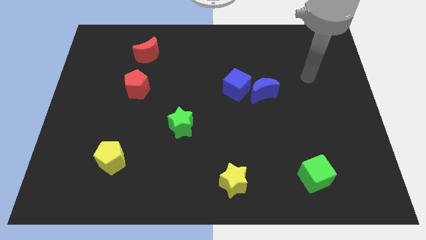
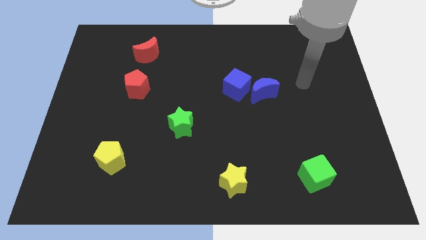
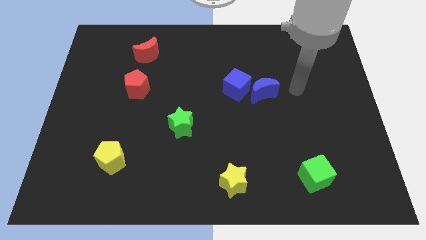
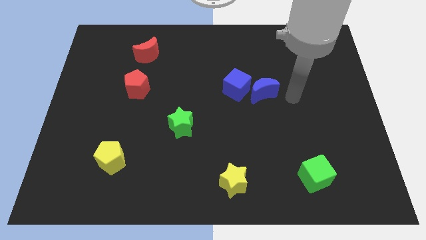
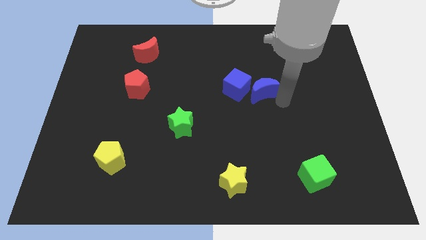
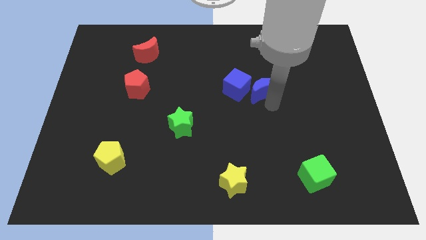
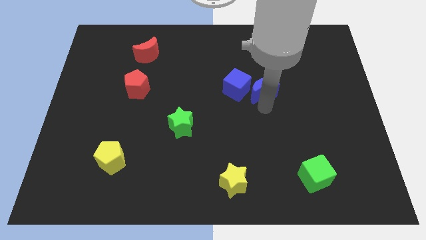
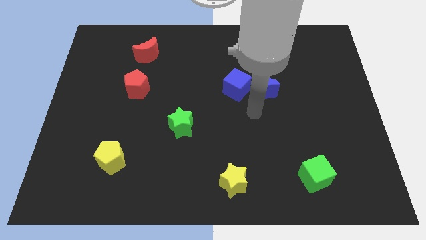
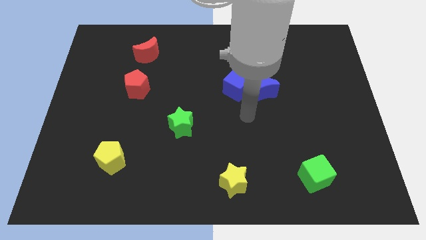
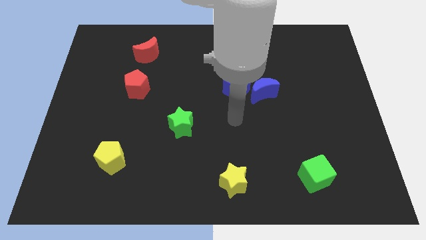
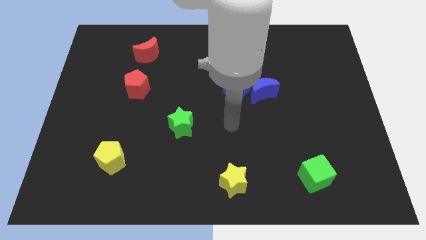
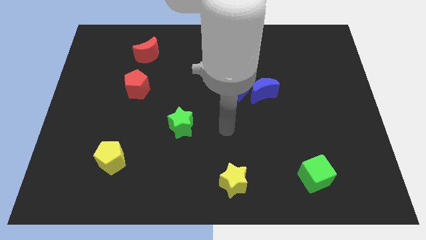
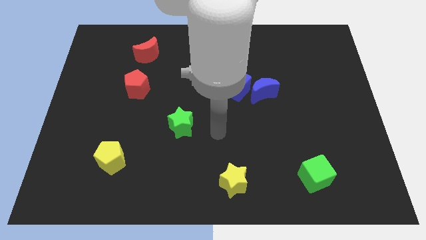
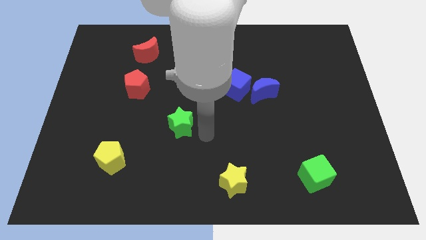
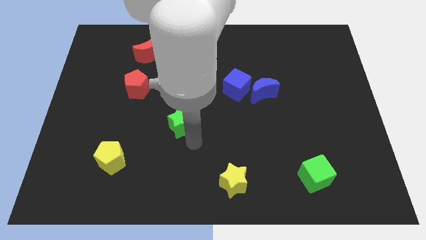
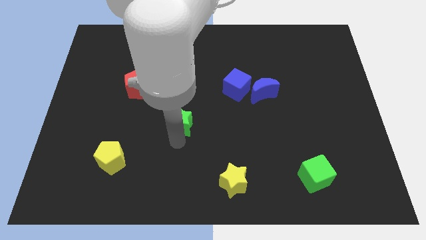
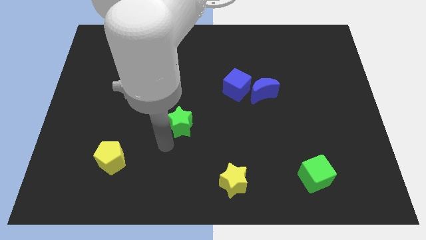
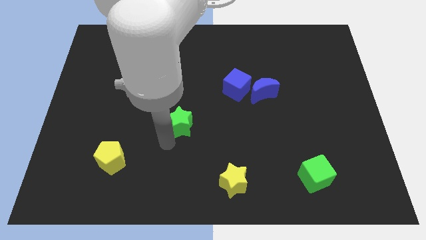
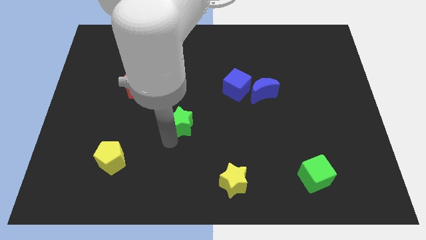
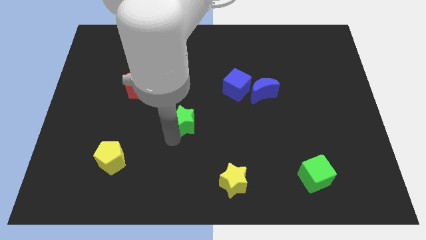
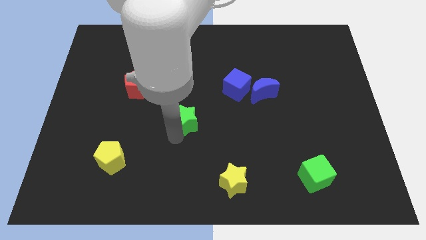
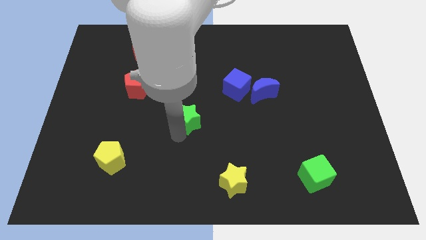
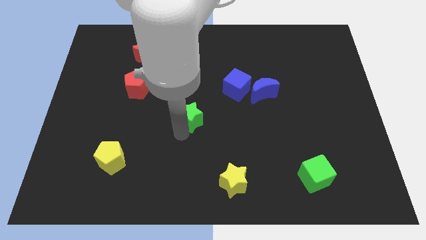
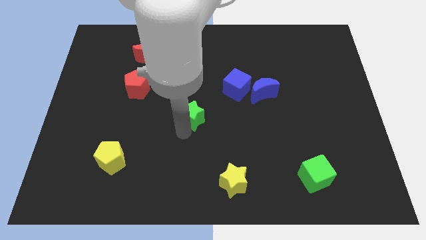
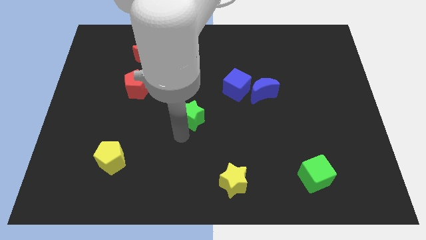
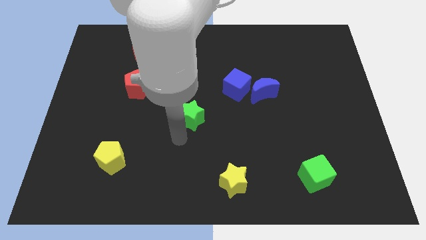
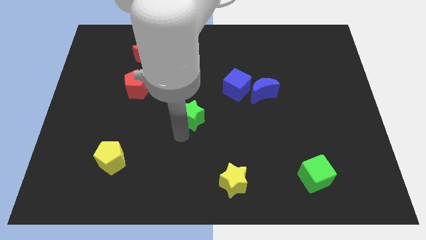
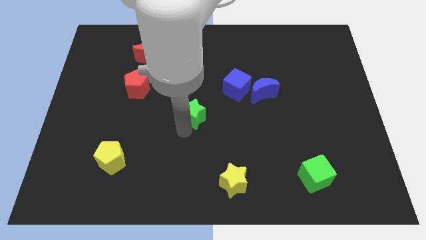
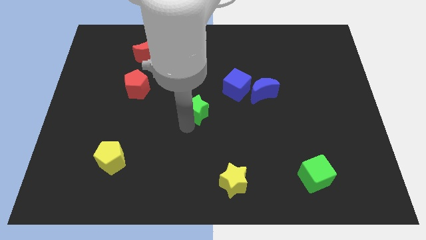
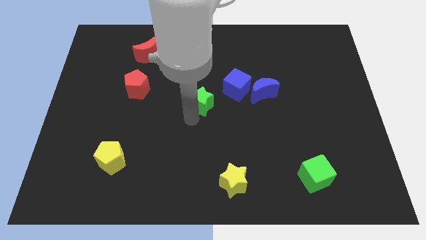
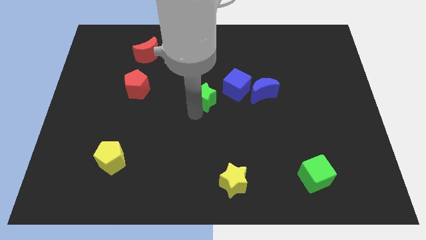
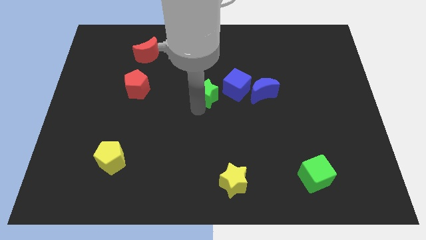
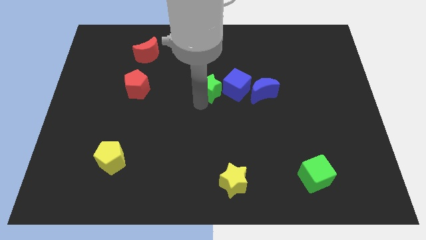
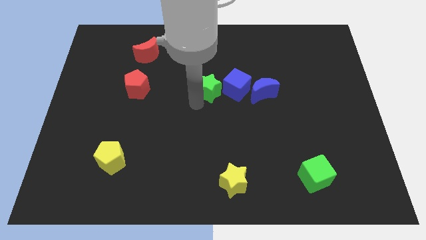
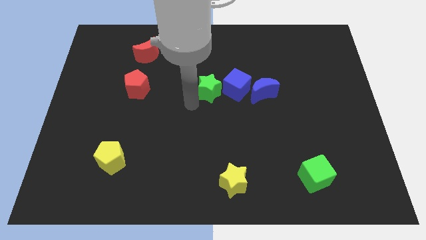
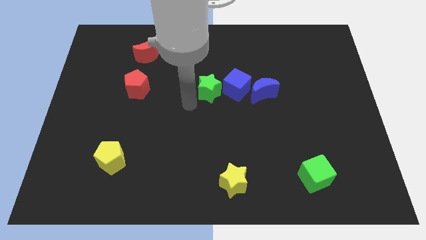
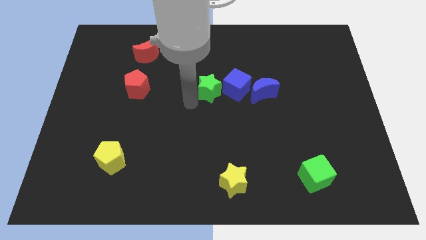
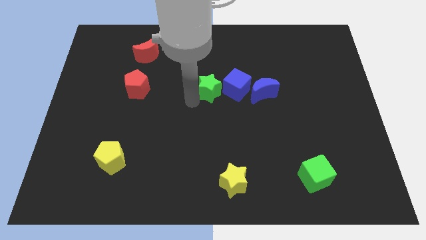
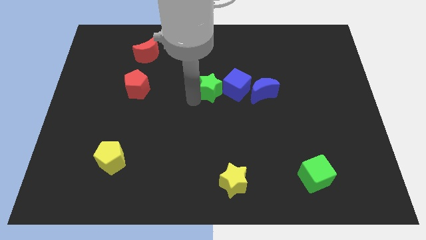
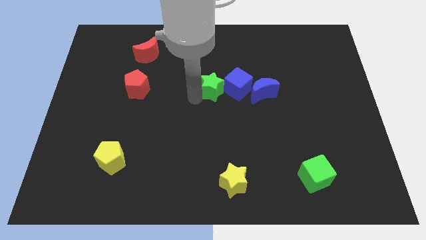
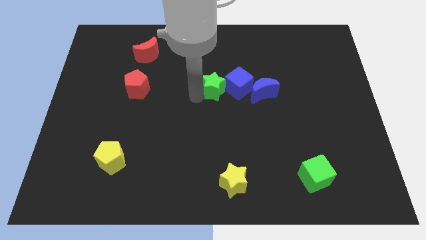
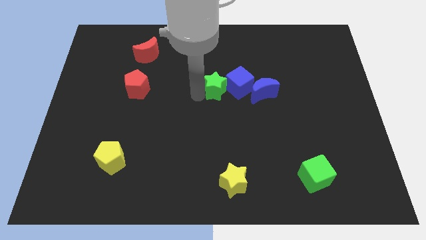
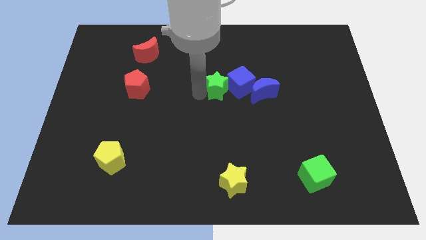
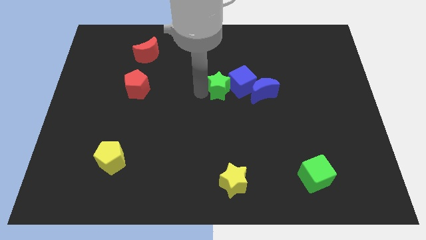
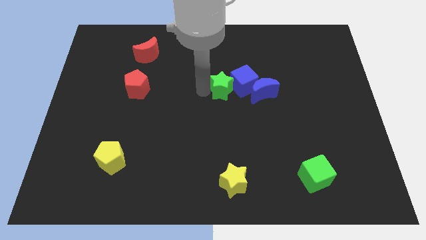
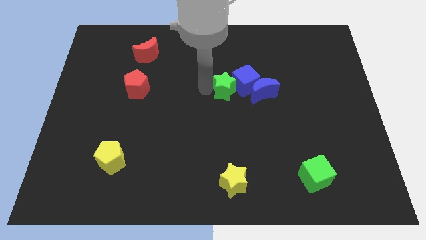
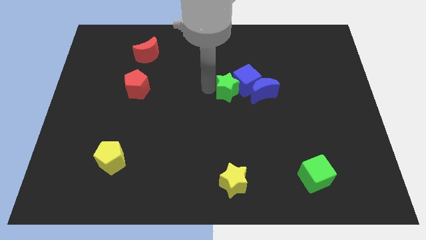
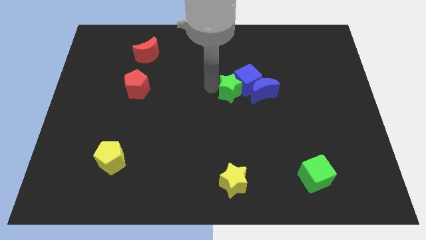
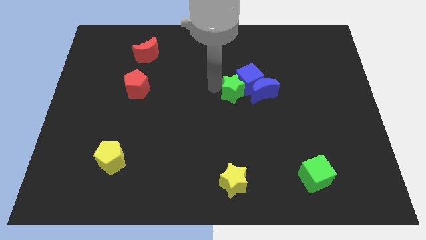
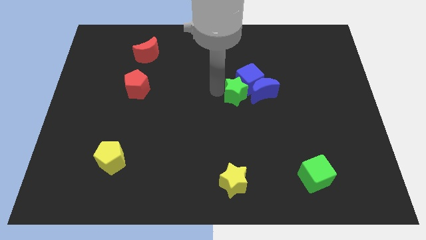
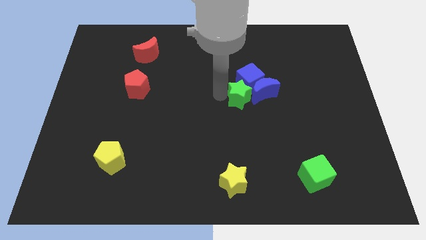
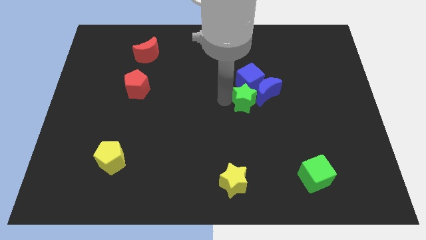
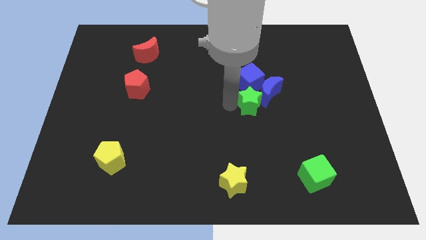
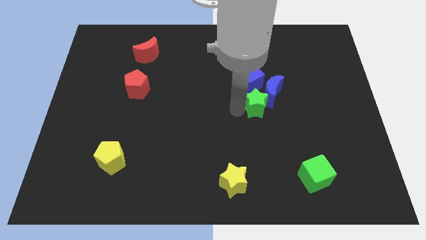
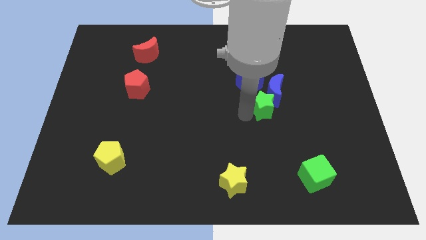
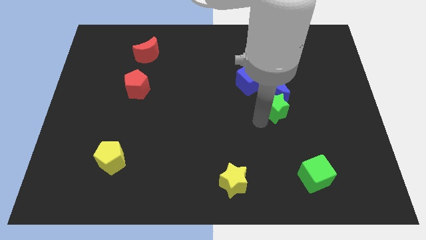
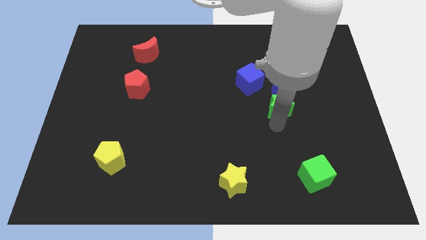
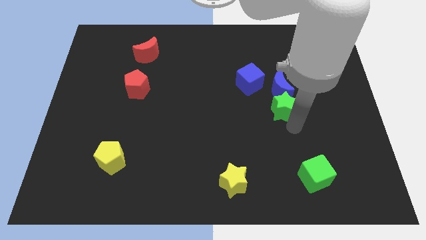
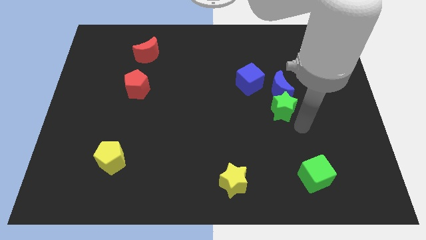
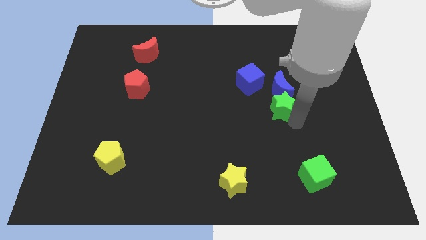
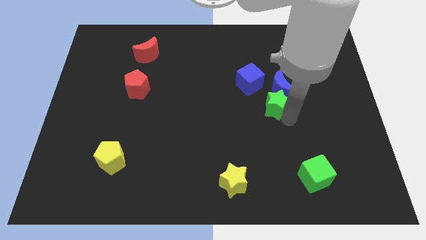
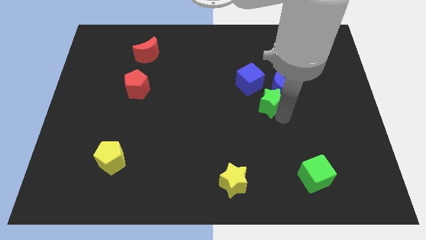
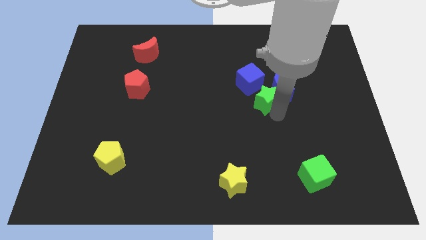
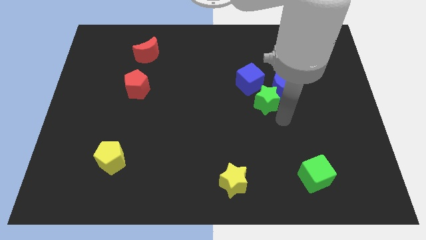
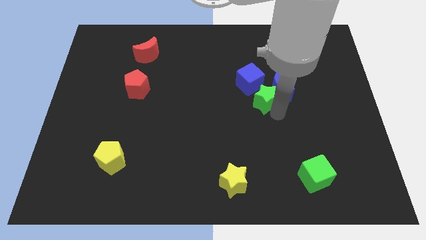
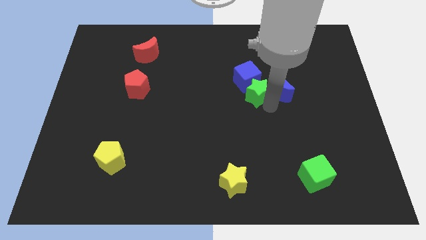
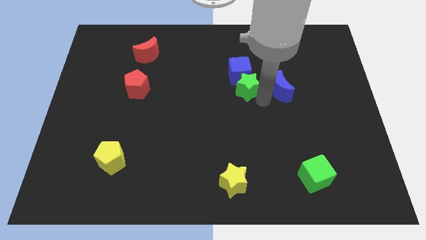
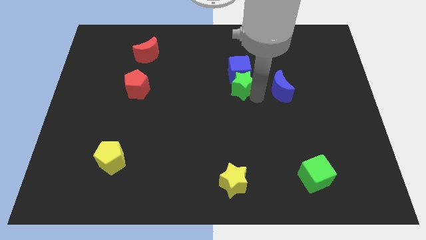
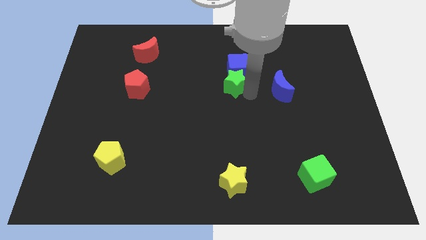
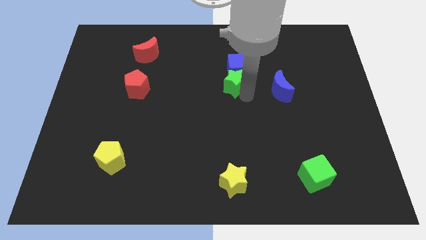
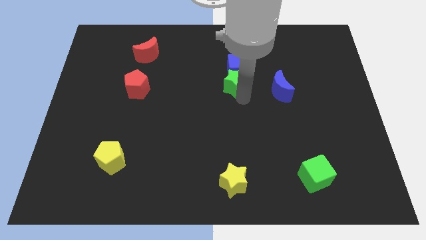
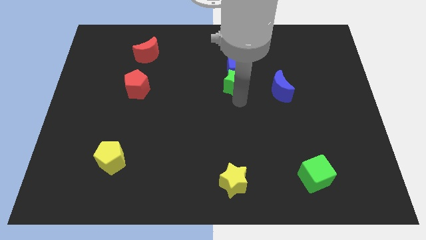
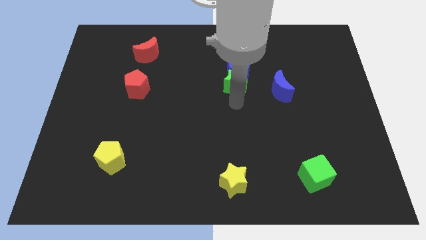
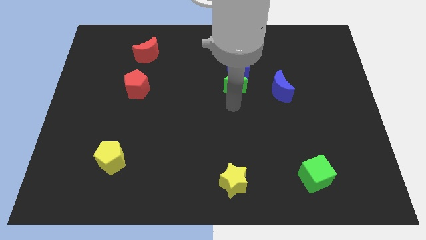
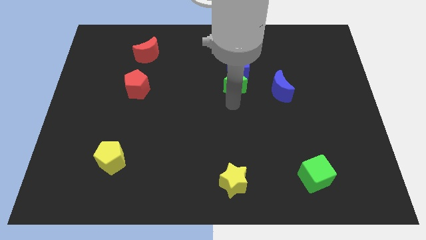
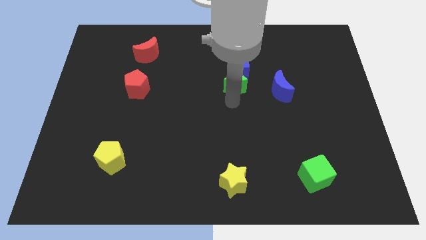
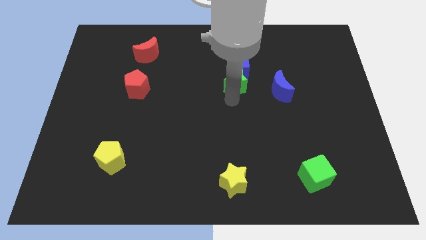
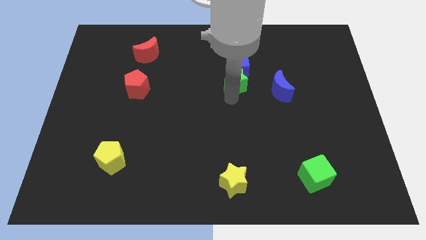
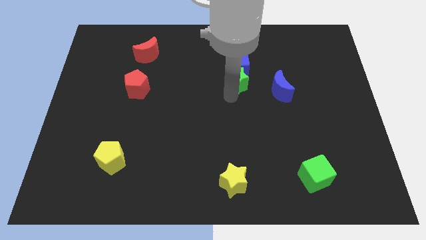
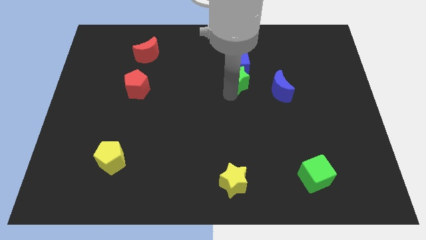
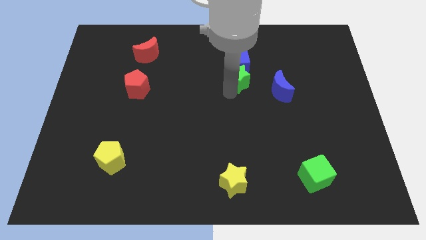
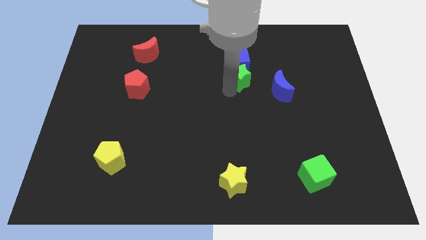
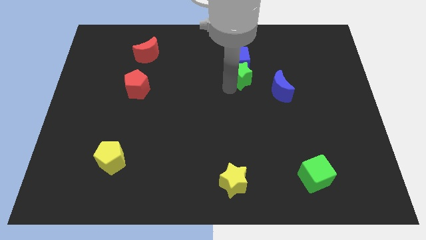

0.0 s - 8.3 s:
move the green star upwards and then to the right
